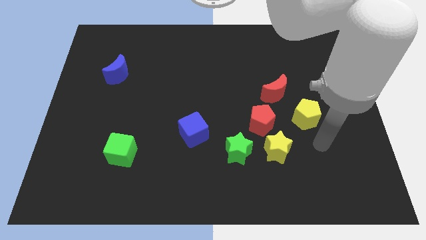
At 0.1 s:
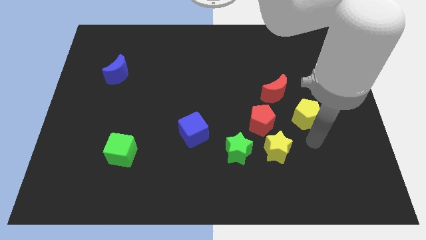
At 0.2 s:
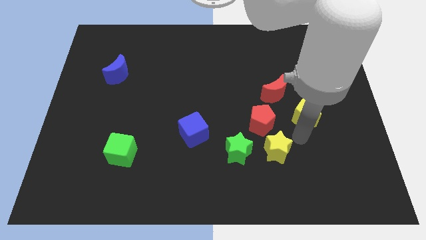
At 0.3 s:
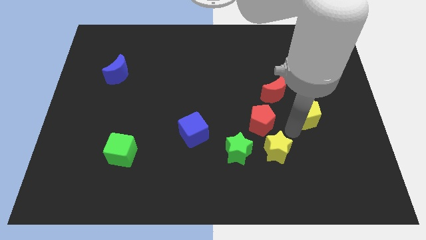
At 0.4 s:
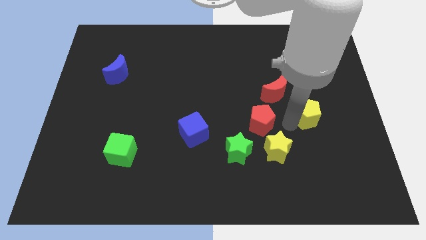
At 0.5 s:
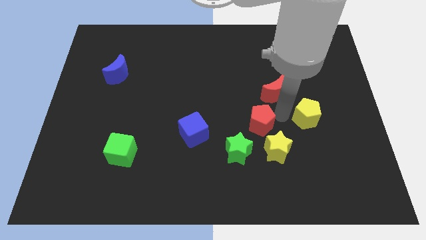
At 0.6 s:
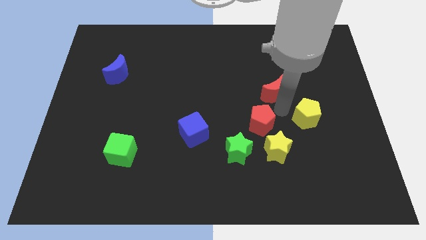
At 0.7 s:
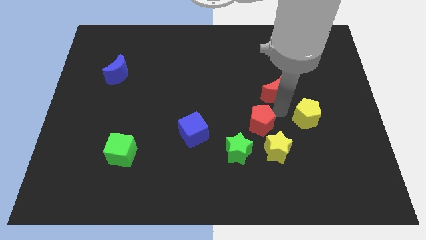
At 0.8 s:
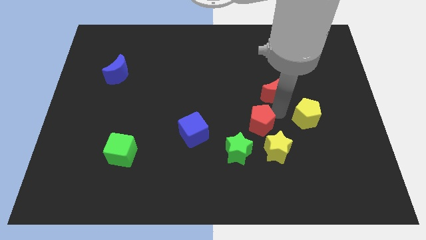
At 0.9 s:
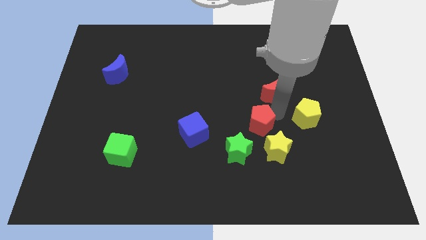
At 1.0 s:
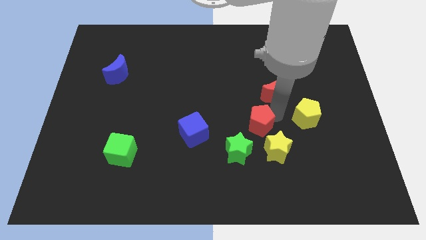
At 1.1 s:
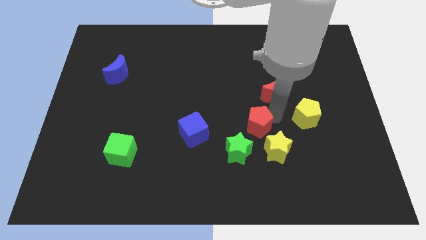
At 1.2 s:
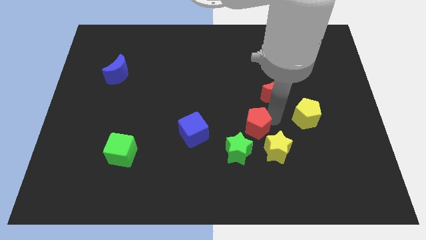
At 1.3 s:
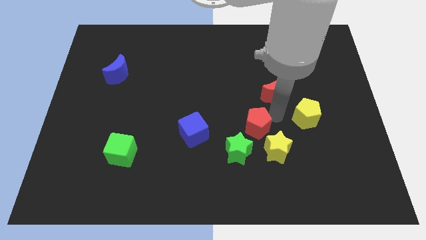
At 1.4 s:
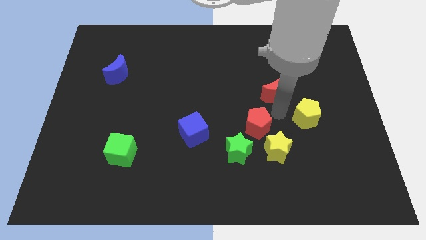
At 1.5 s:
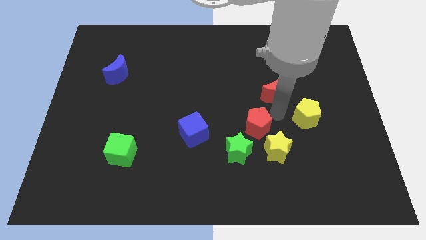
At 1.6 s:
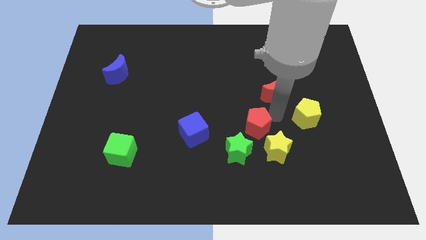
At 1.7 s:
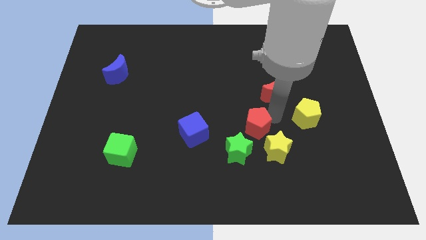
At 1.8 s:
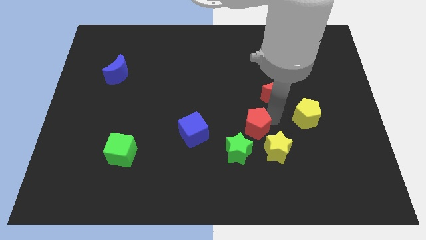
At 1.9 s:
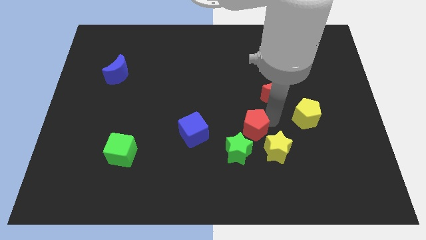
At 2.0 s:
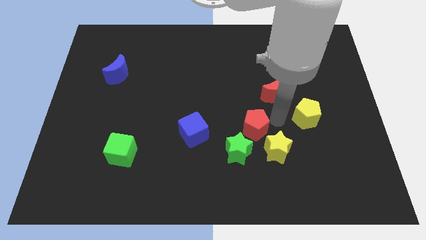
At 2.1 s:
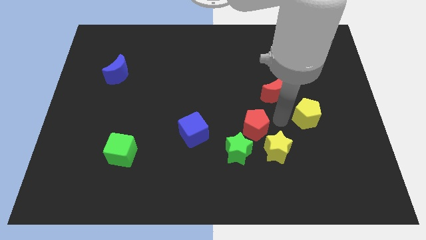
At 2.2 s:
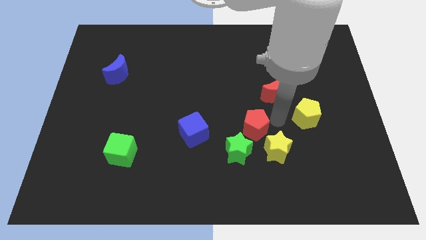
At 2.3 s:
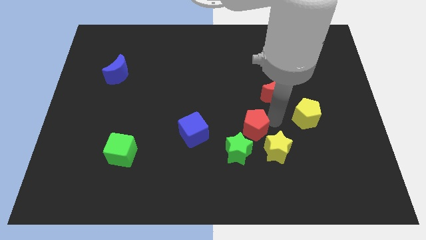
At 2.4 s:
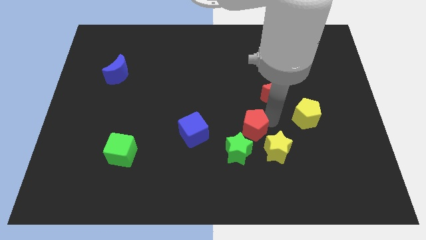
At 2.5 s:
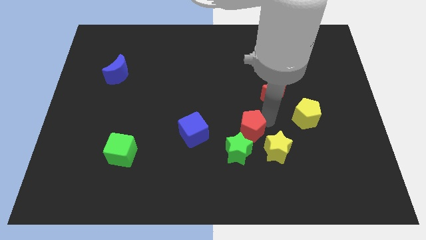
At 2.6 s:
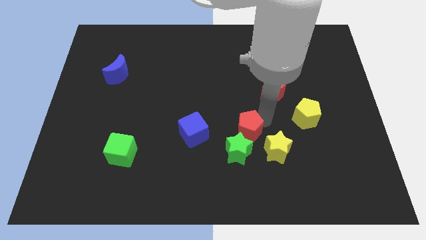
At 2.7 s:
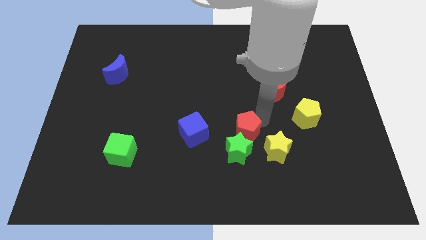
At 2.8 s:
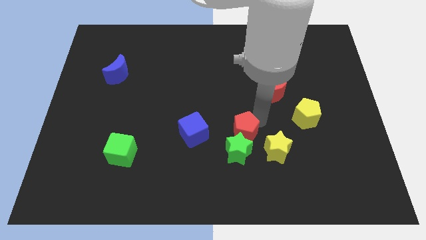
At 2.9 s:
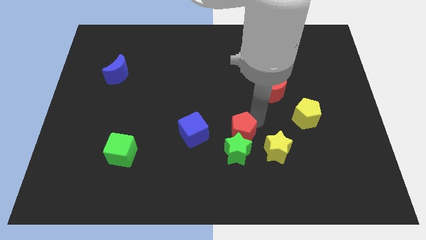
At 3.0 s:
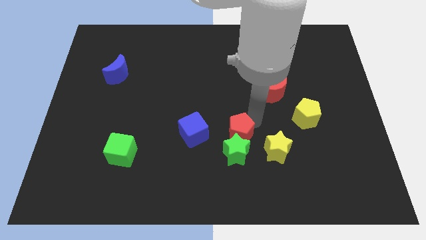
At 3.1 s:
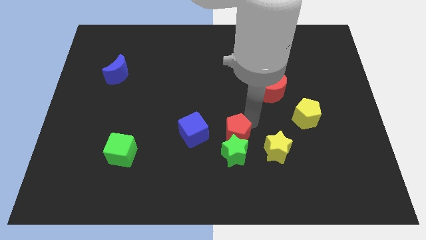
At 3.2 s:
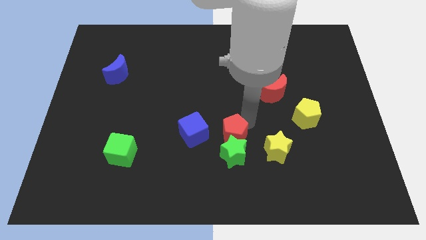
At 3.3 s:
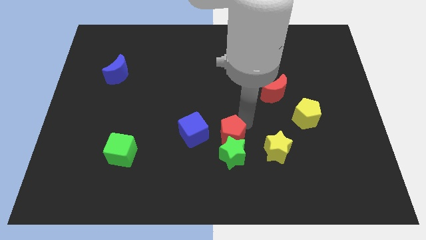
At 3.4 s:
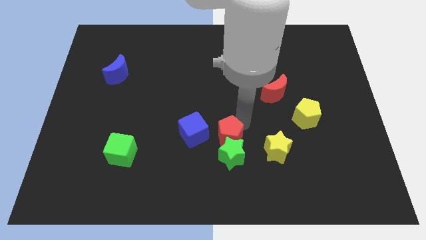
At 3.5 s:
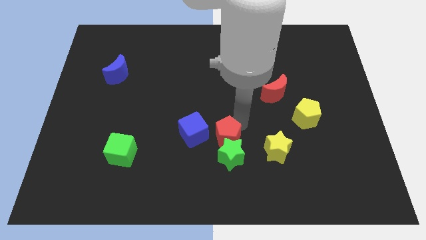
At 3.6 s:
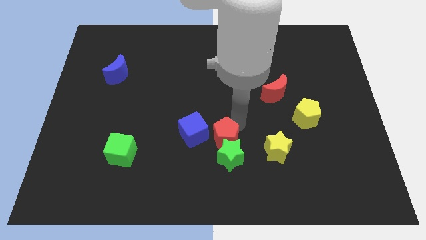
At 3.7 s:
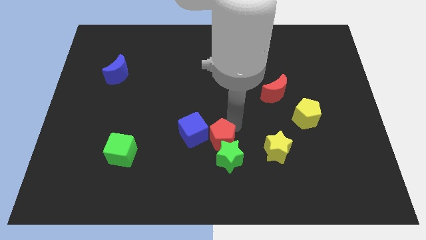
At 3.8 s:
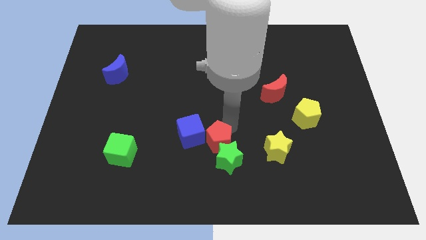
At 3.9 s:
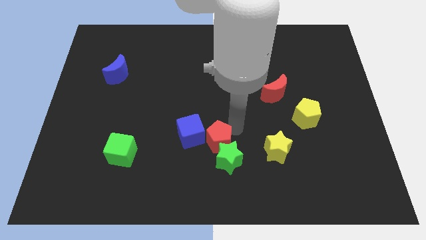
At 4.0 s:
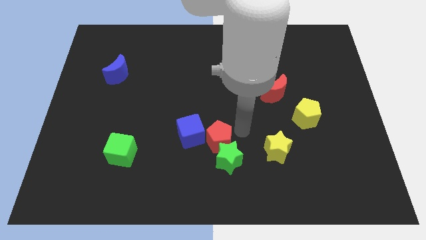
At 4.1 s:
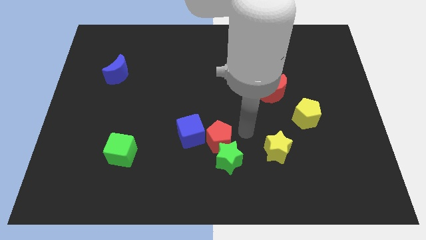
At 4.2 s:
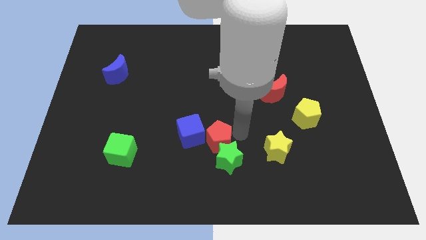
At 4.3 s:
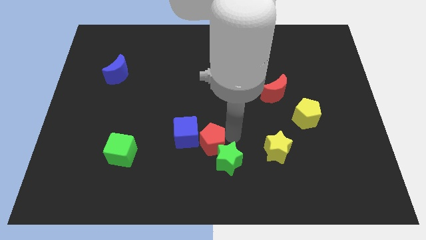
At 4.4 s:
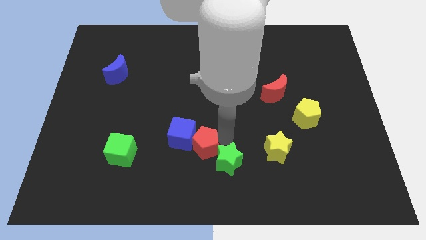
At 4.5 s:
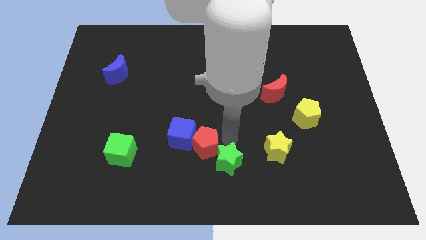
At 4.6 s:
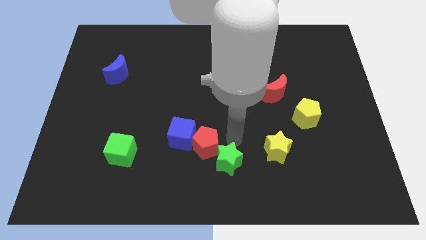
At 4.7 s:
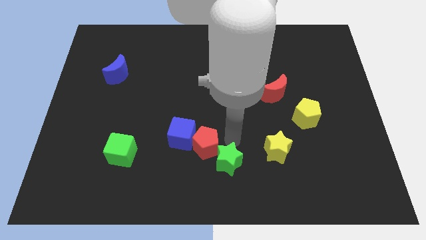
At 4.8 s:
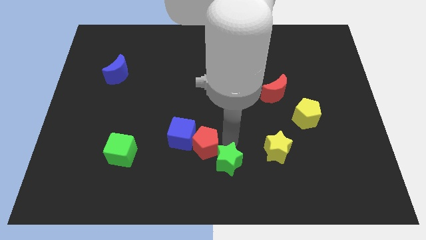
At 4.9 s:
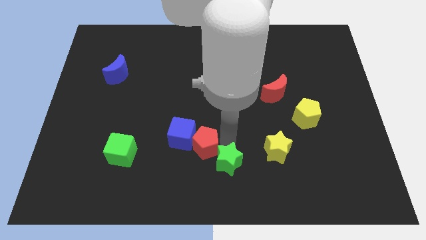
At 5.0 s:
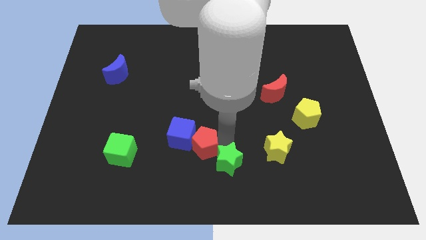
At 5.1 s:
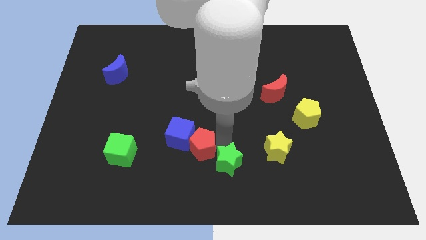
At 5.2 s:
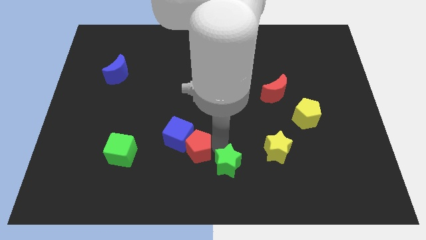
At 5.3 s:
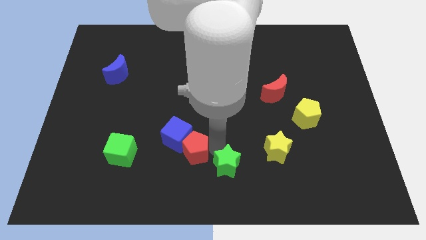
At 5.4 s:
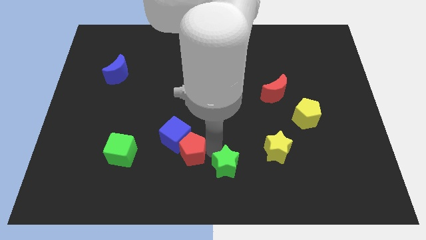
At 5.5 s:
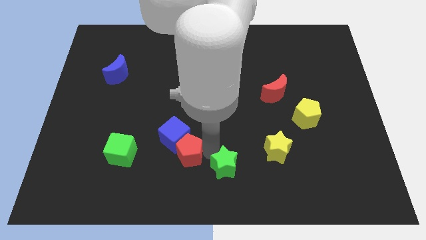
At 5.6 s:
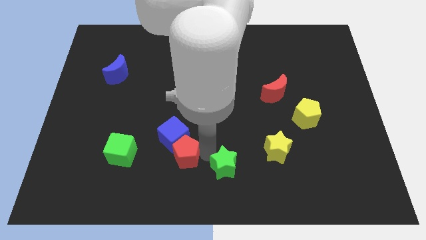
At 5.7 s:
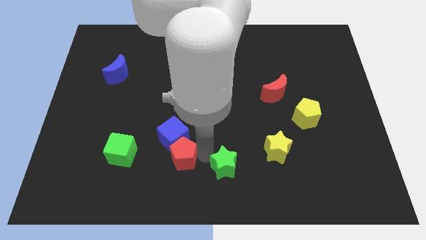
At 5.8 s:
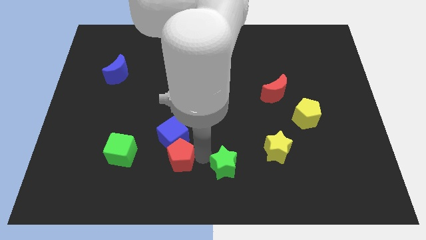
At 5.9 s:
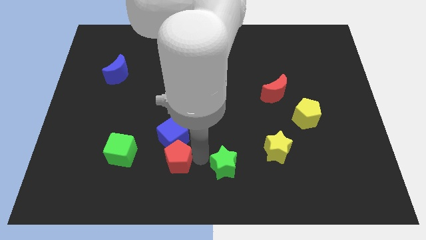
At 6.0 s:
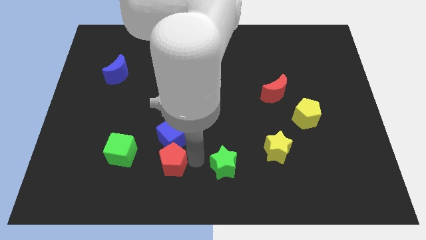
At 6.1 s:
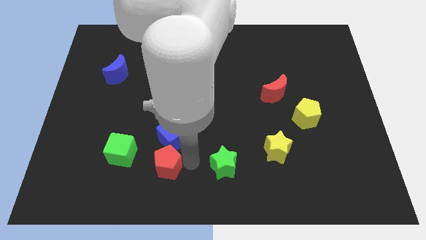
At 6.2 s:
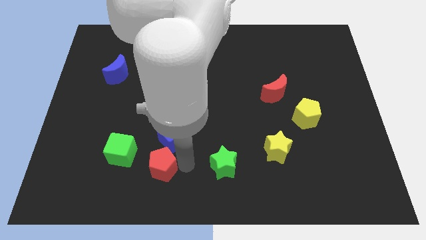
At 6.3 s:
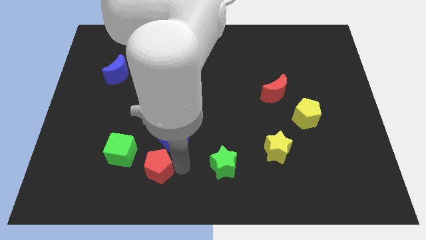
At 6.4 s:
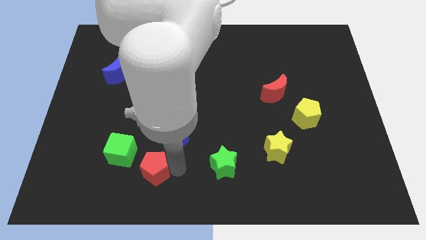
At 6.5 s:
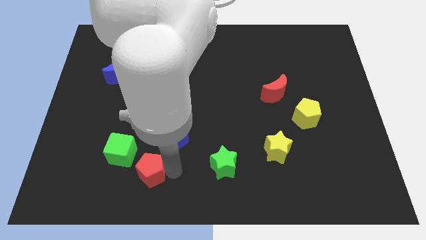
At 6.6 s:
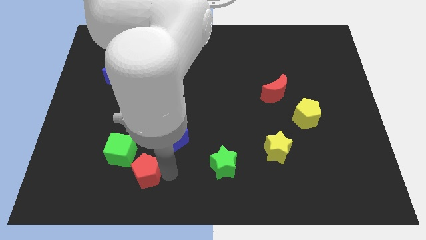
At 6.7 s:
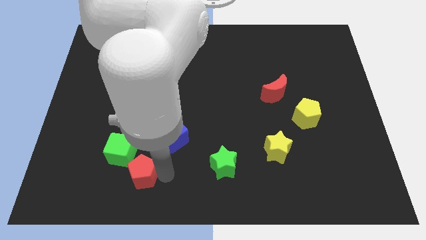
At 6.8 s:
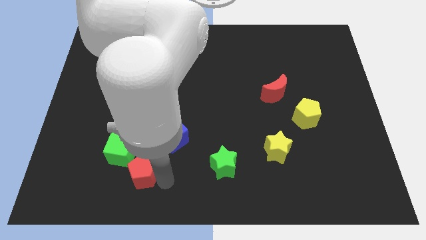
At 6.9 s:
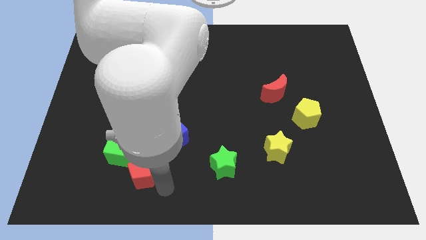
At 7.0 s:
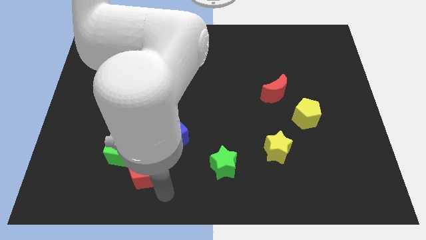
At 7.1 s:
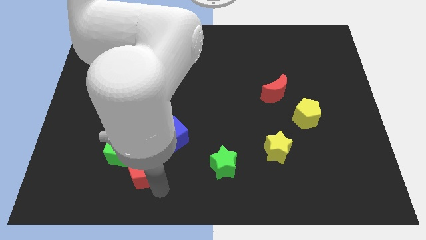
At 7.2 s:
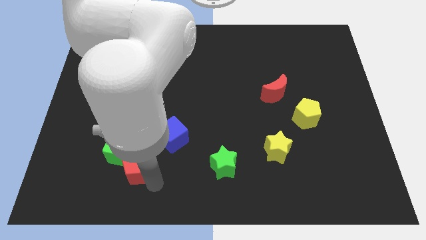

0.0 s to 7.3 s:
move the red pentagon to the green cube
